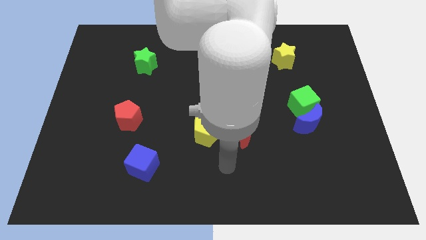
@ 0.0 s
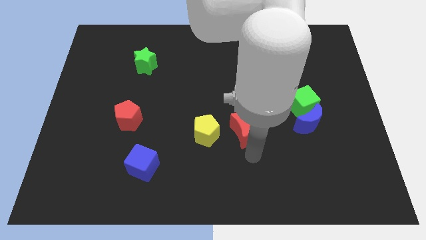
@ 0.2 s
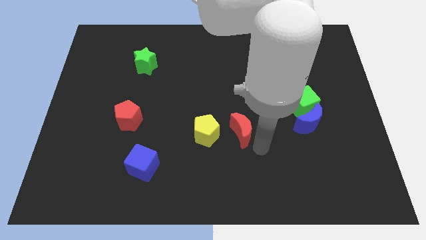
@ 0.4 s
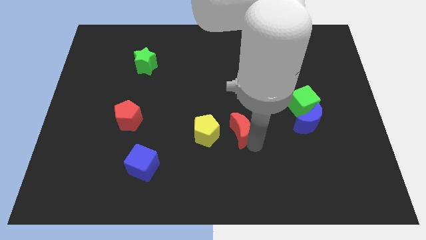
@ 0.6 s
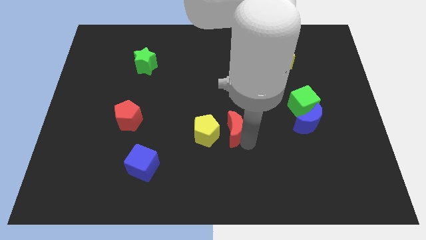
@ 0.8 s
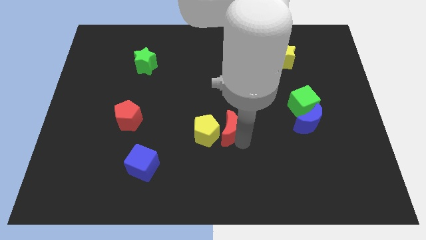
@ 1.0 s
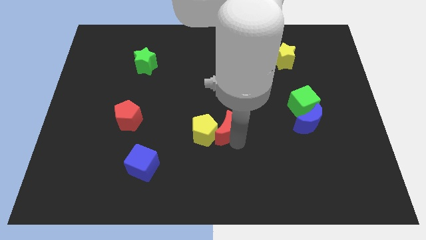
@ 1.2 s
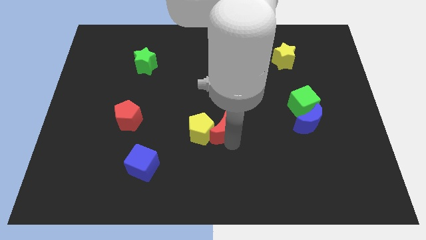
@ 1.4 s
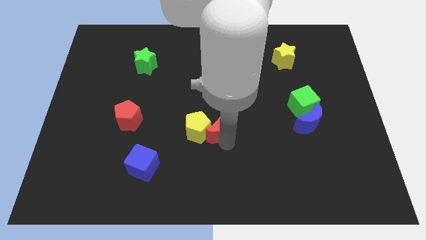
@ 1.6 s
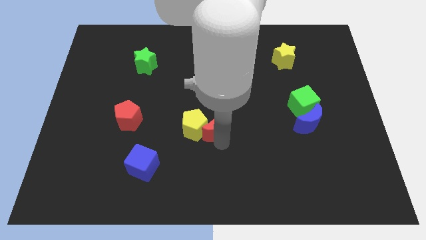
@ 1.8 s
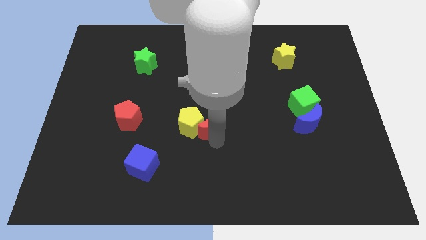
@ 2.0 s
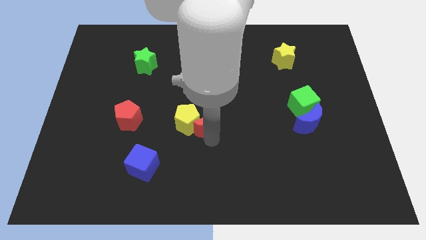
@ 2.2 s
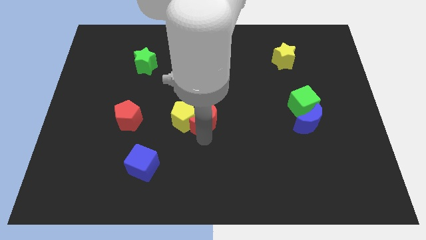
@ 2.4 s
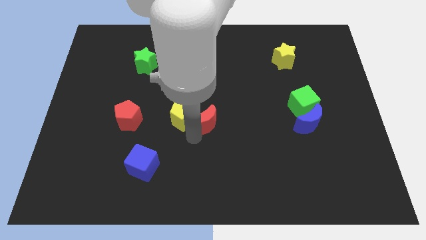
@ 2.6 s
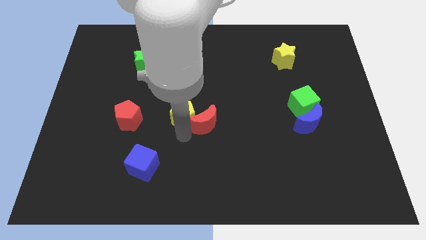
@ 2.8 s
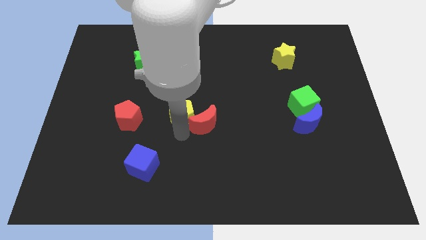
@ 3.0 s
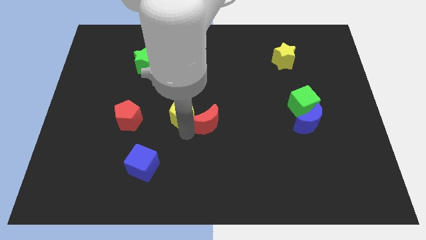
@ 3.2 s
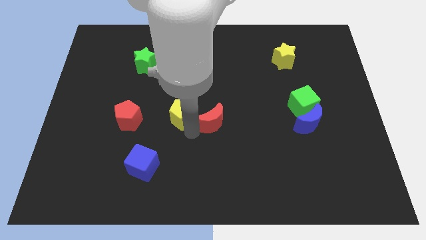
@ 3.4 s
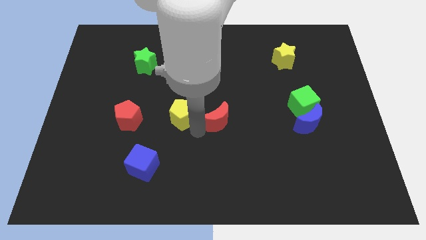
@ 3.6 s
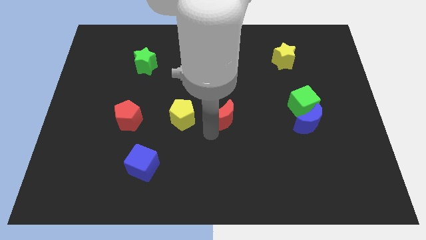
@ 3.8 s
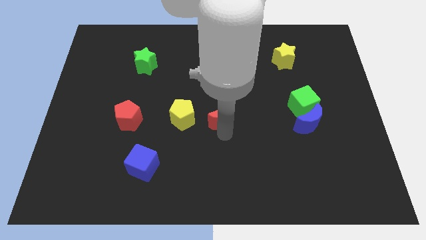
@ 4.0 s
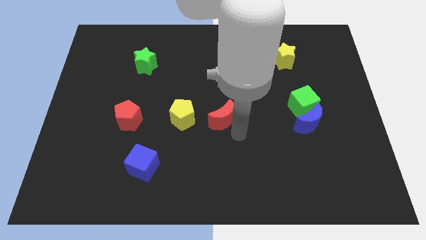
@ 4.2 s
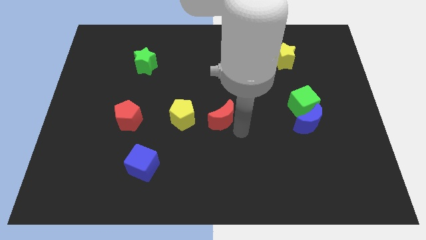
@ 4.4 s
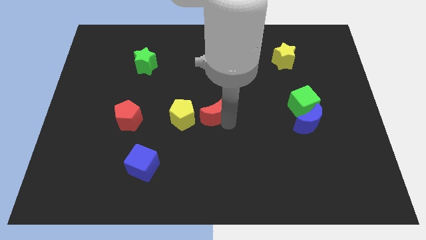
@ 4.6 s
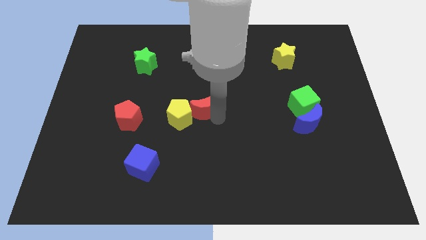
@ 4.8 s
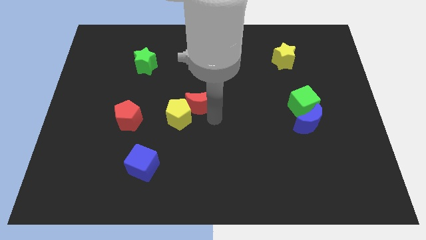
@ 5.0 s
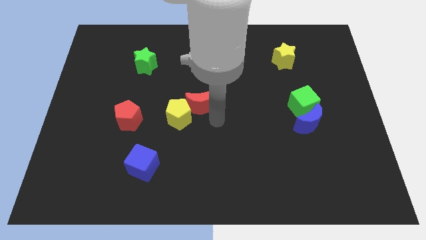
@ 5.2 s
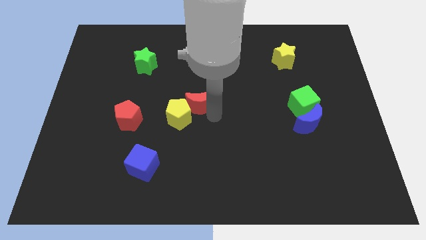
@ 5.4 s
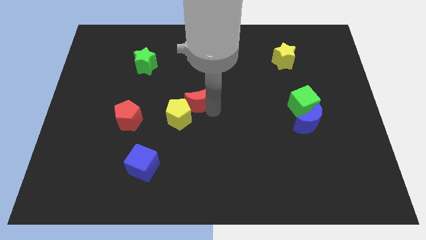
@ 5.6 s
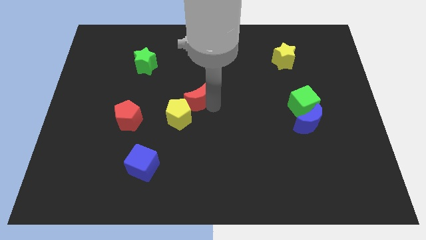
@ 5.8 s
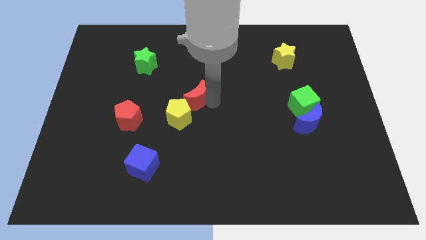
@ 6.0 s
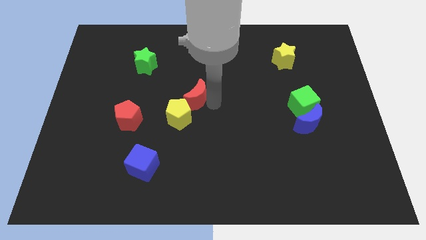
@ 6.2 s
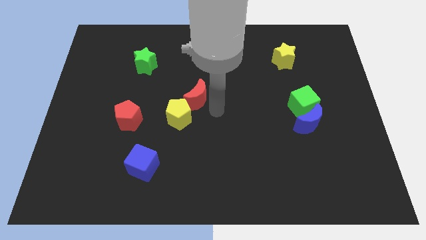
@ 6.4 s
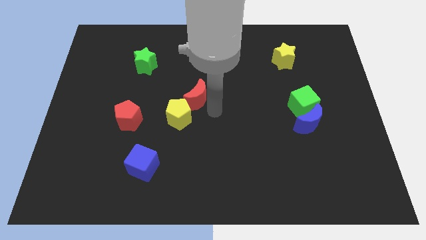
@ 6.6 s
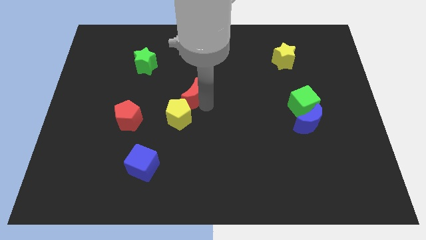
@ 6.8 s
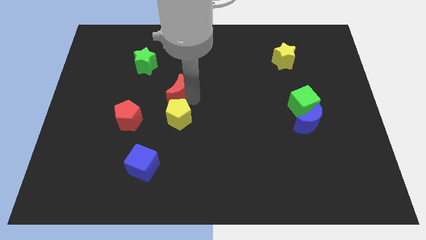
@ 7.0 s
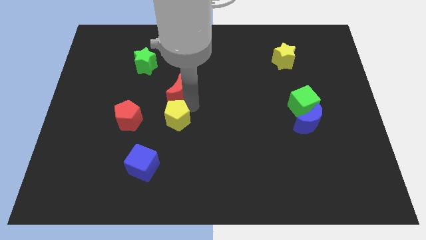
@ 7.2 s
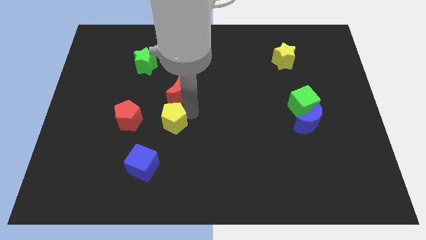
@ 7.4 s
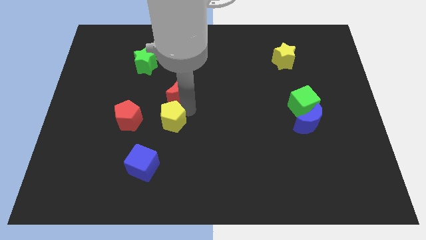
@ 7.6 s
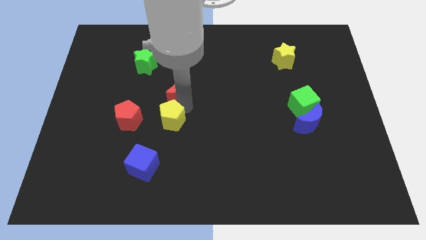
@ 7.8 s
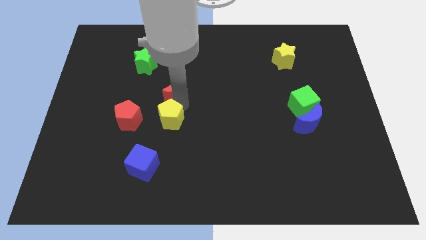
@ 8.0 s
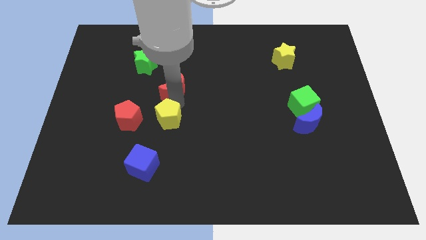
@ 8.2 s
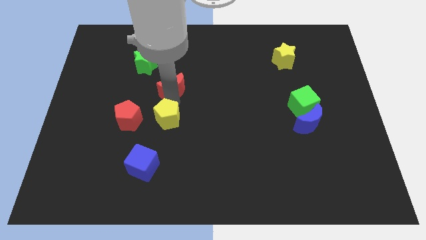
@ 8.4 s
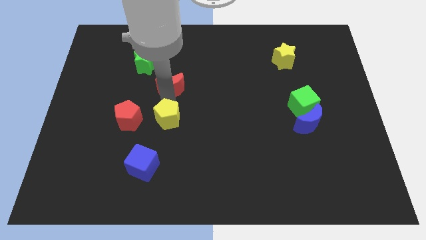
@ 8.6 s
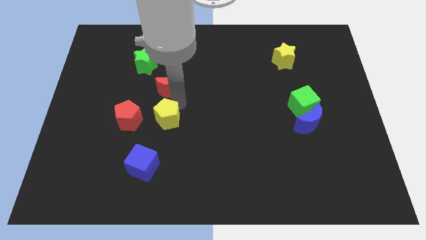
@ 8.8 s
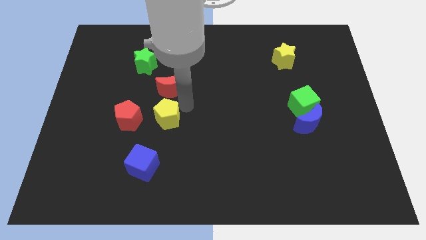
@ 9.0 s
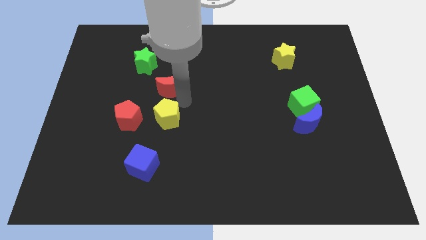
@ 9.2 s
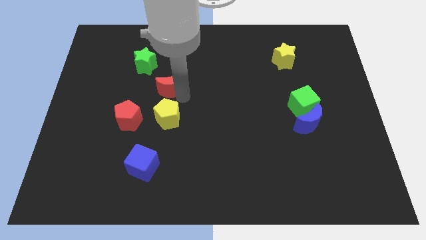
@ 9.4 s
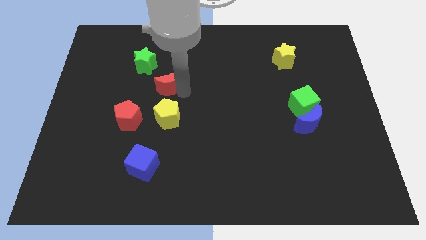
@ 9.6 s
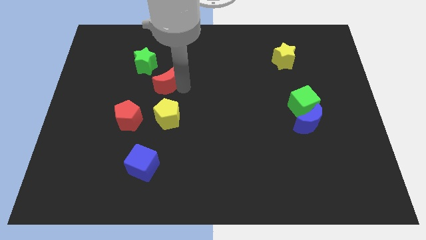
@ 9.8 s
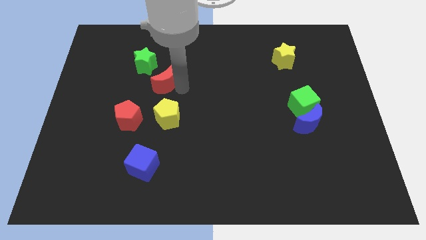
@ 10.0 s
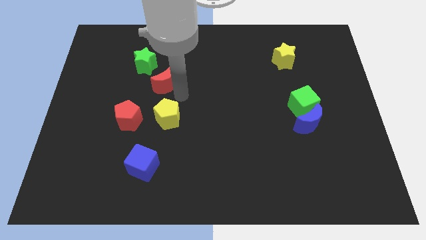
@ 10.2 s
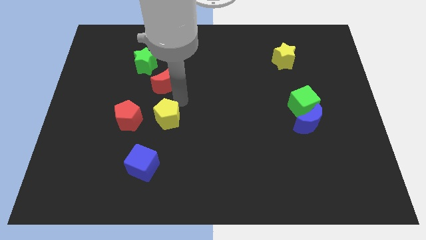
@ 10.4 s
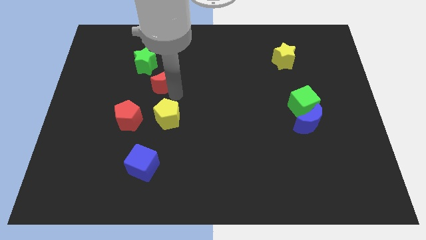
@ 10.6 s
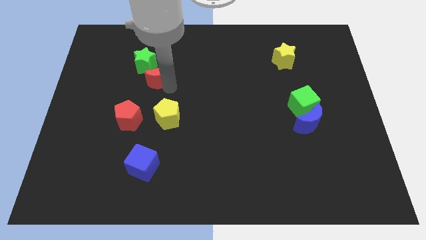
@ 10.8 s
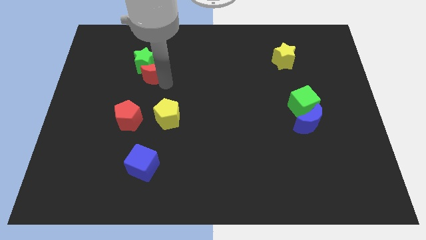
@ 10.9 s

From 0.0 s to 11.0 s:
move the red moon to the green star

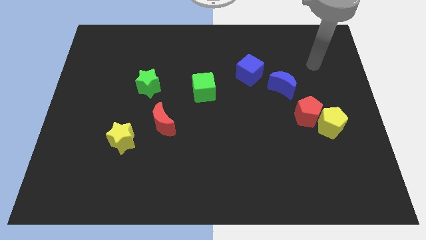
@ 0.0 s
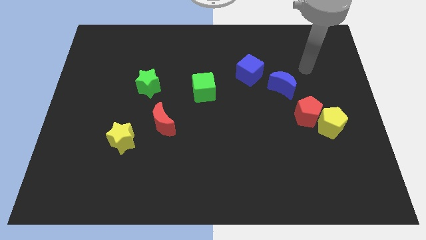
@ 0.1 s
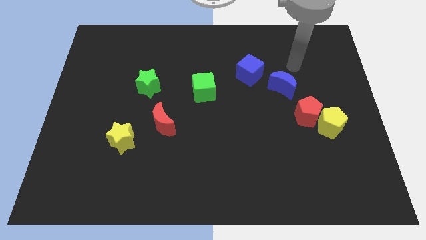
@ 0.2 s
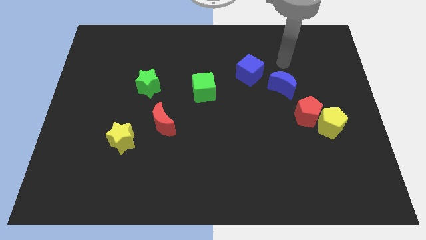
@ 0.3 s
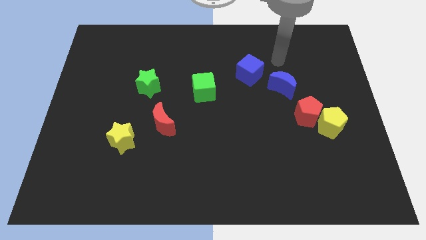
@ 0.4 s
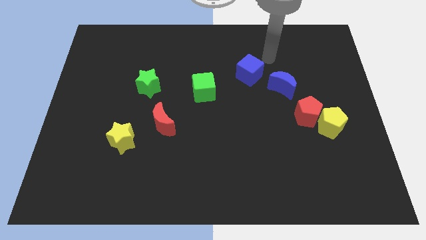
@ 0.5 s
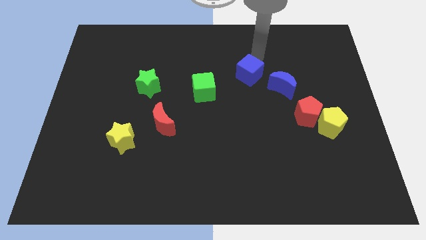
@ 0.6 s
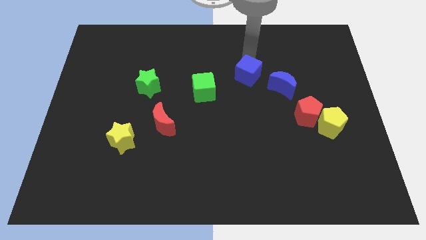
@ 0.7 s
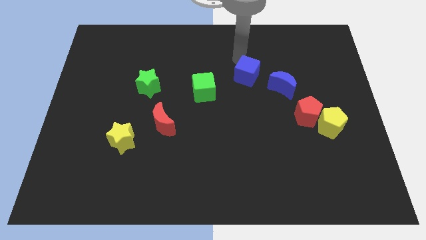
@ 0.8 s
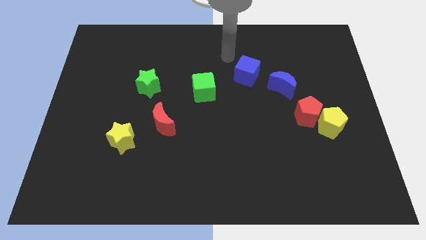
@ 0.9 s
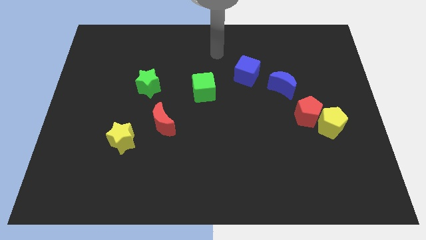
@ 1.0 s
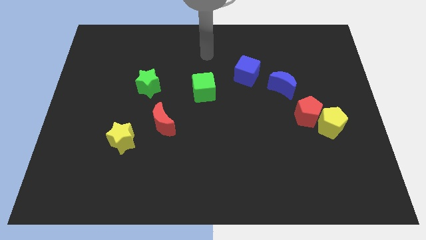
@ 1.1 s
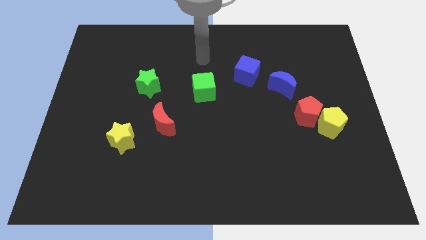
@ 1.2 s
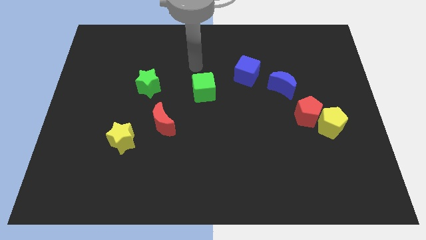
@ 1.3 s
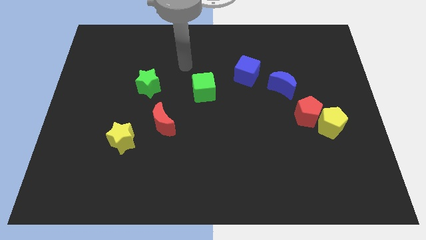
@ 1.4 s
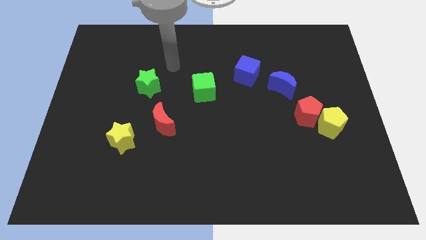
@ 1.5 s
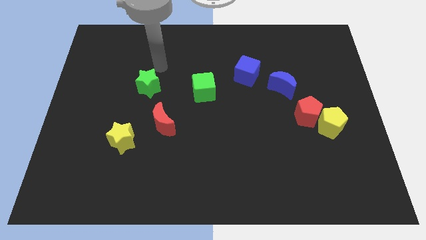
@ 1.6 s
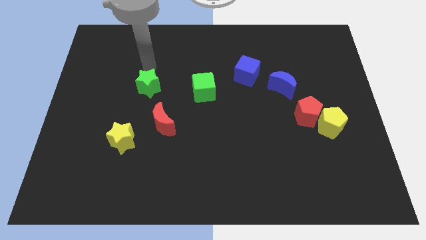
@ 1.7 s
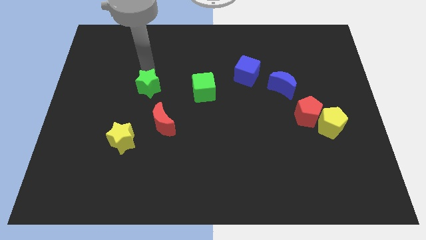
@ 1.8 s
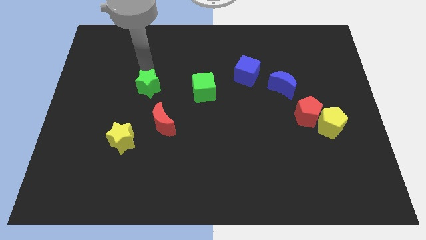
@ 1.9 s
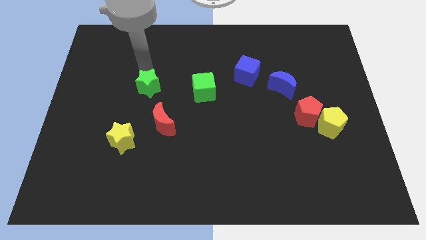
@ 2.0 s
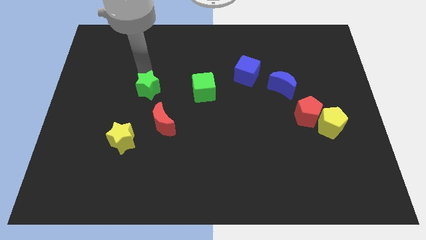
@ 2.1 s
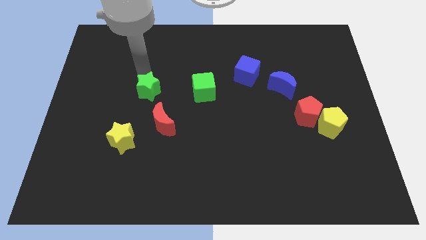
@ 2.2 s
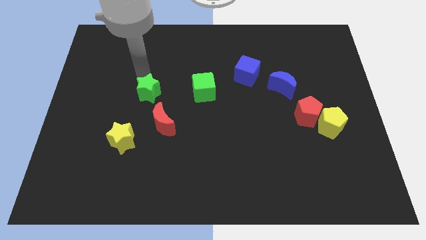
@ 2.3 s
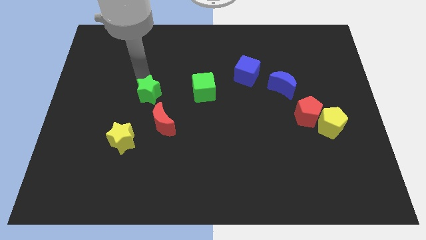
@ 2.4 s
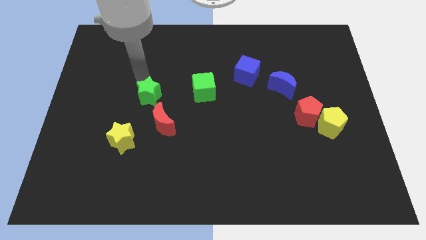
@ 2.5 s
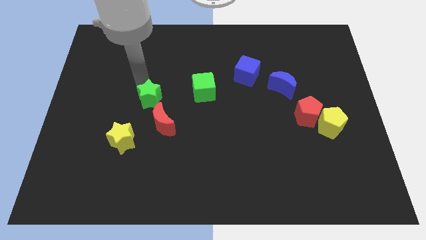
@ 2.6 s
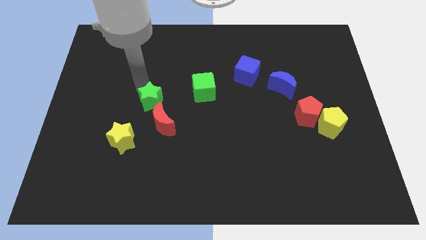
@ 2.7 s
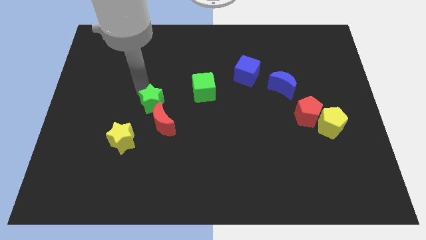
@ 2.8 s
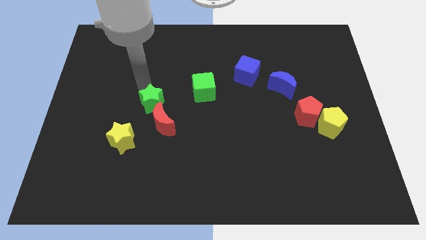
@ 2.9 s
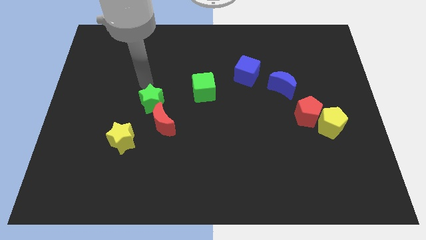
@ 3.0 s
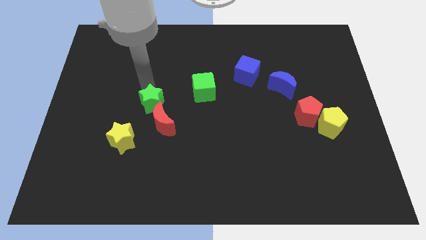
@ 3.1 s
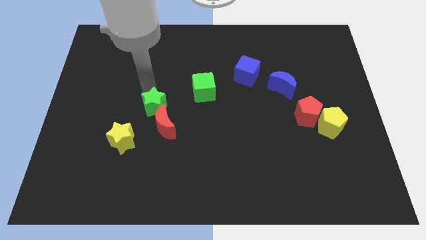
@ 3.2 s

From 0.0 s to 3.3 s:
put the green star next to the red moon
